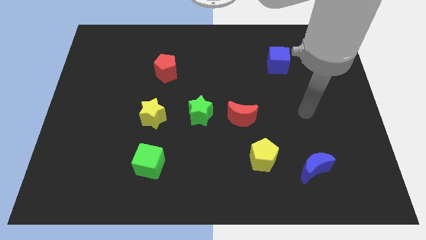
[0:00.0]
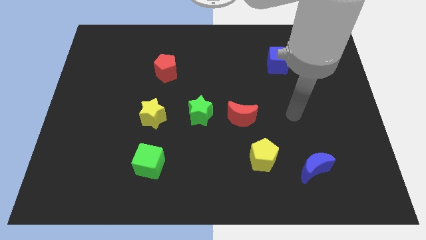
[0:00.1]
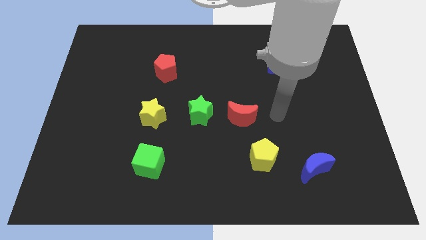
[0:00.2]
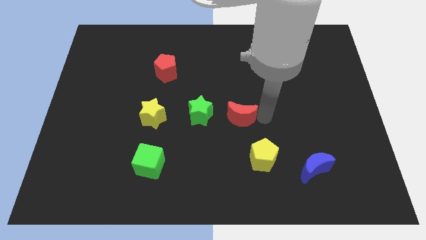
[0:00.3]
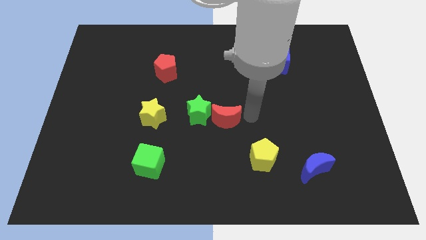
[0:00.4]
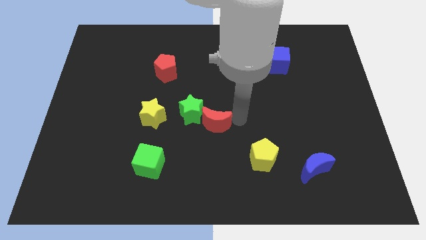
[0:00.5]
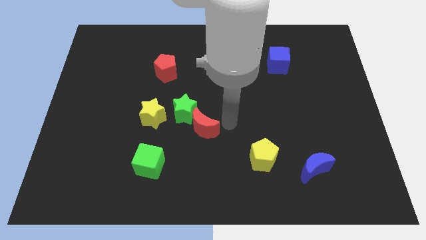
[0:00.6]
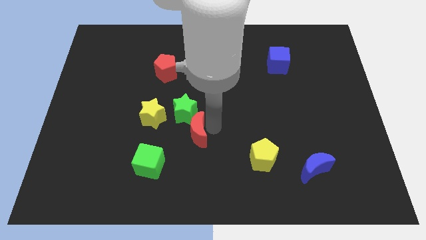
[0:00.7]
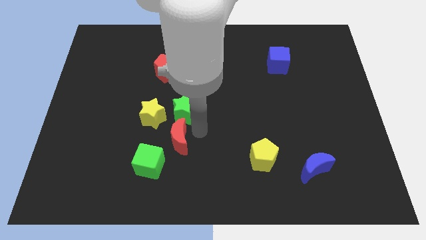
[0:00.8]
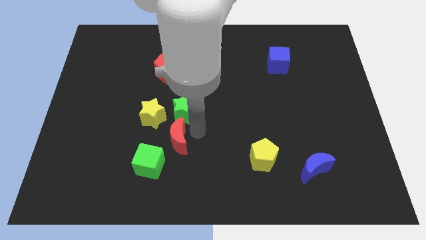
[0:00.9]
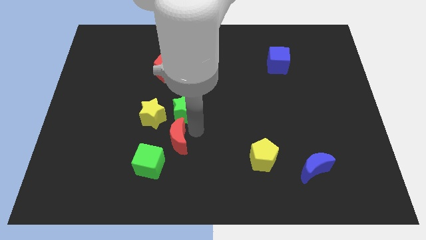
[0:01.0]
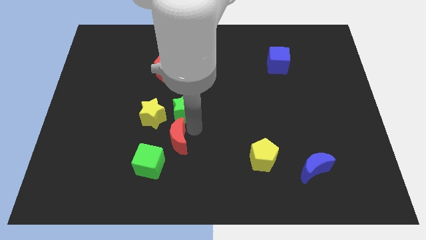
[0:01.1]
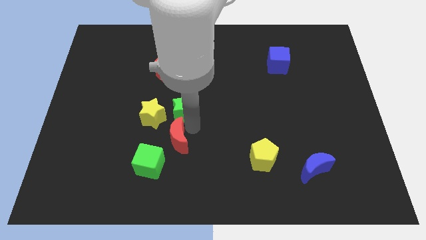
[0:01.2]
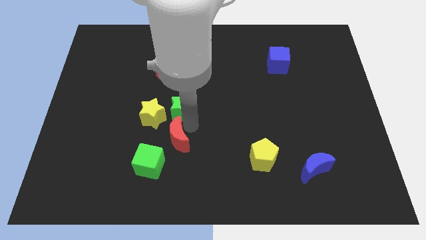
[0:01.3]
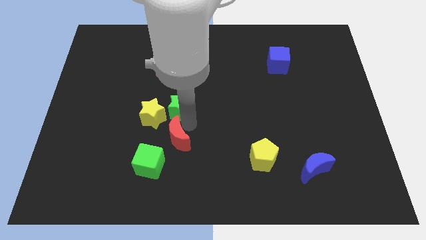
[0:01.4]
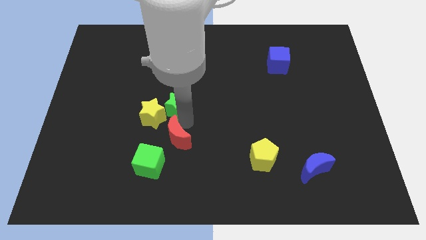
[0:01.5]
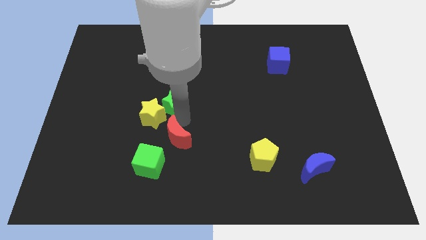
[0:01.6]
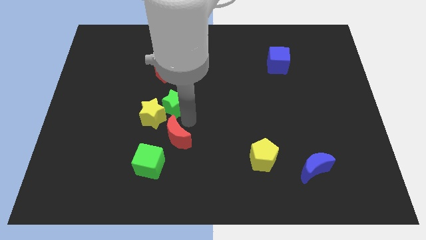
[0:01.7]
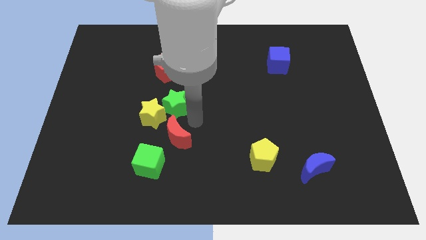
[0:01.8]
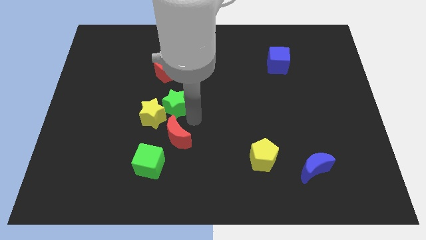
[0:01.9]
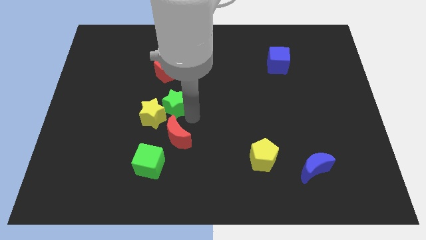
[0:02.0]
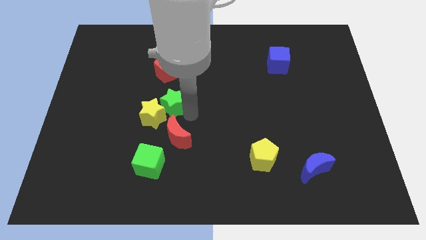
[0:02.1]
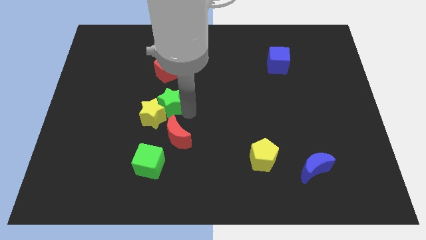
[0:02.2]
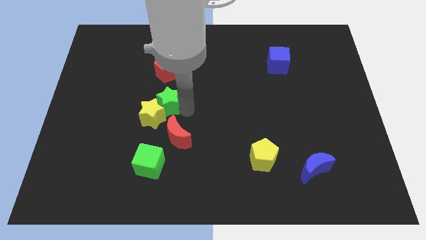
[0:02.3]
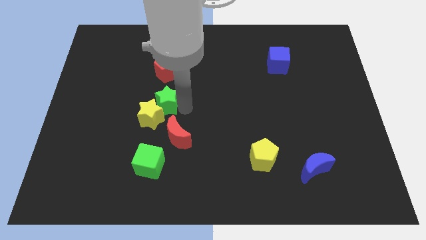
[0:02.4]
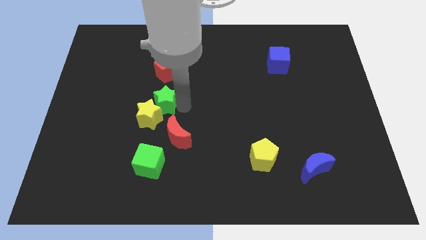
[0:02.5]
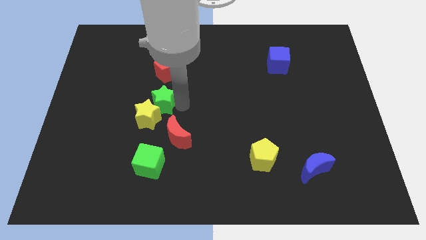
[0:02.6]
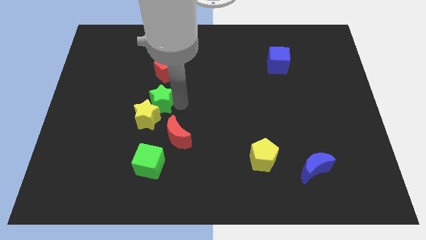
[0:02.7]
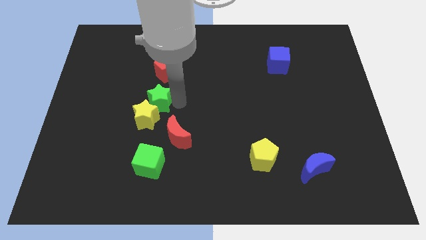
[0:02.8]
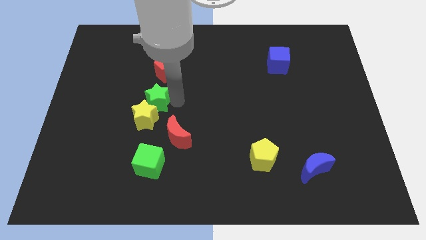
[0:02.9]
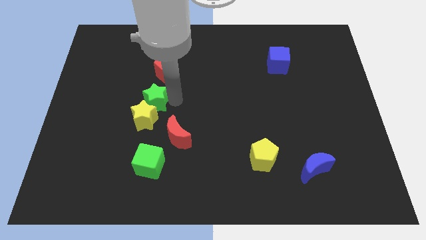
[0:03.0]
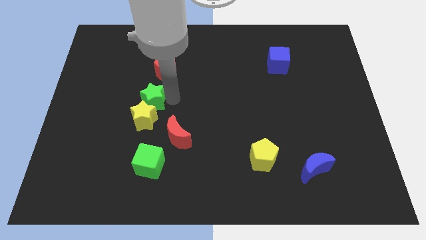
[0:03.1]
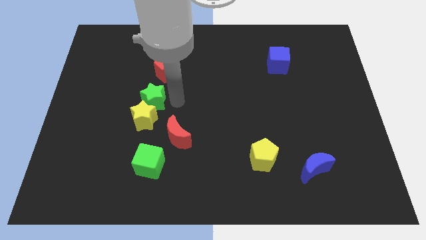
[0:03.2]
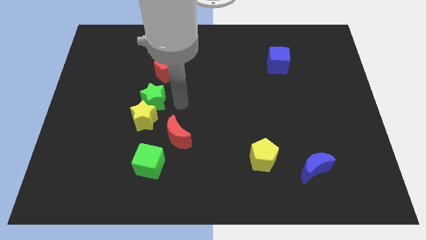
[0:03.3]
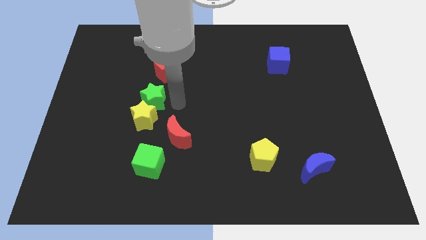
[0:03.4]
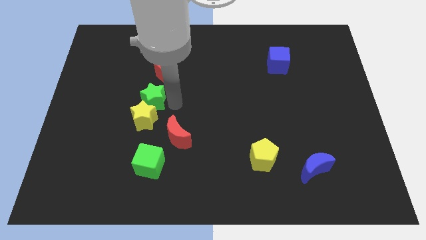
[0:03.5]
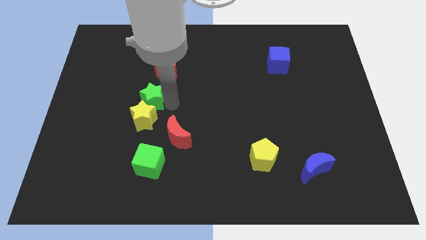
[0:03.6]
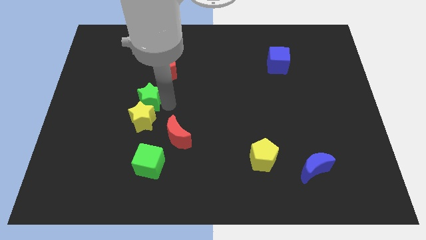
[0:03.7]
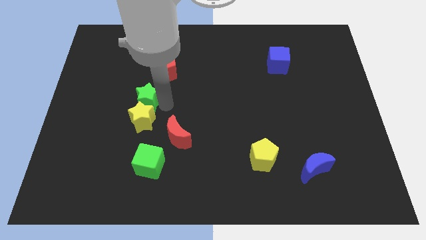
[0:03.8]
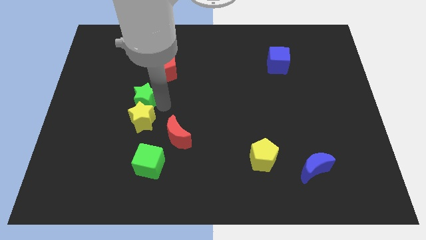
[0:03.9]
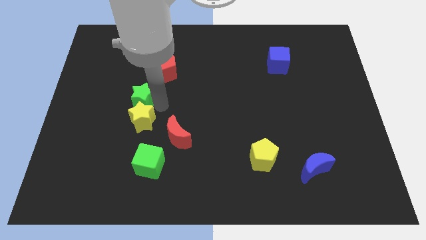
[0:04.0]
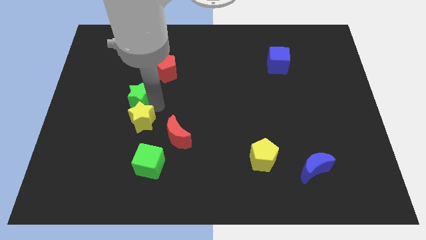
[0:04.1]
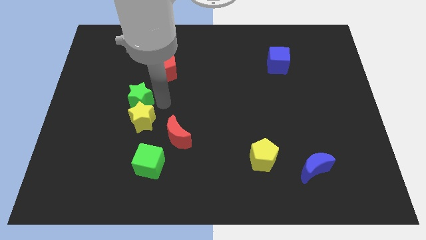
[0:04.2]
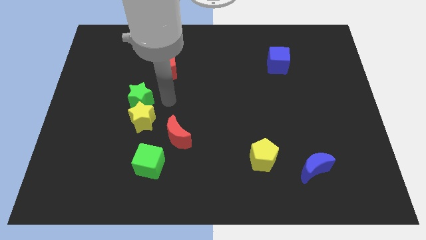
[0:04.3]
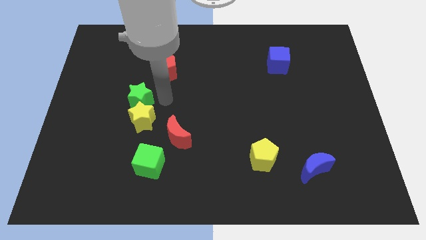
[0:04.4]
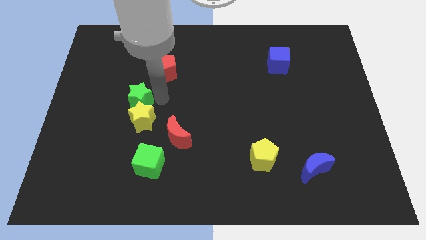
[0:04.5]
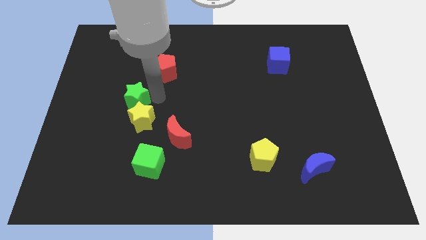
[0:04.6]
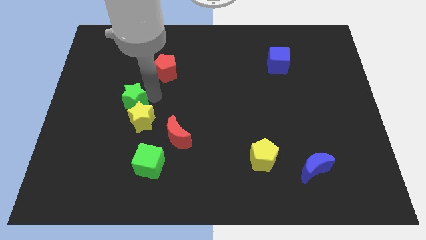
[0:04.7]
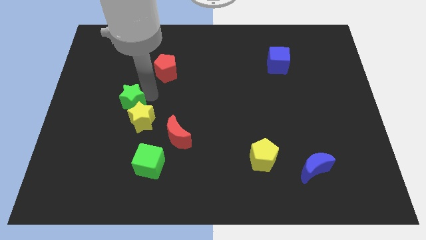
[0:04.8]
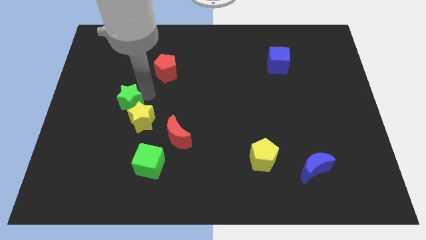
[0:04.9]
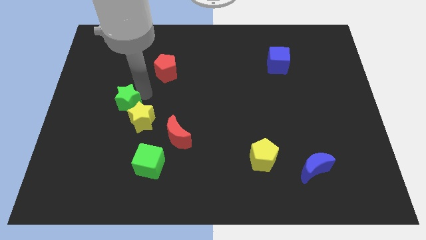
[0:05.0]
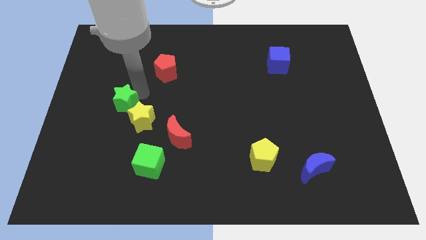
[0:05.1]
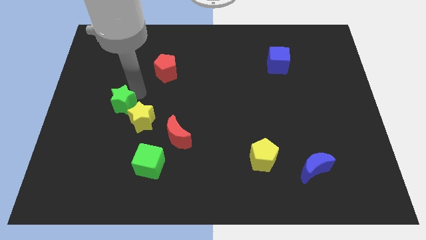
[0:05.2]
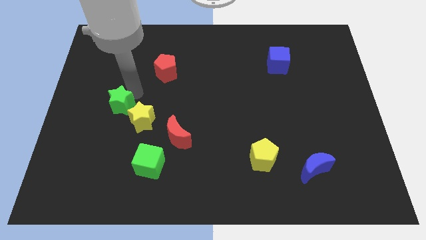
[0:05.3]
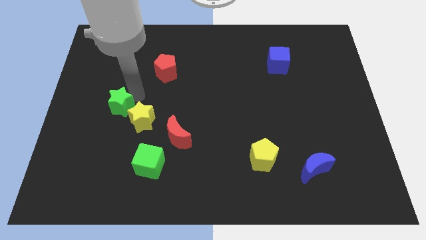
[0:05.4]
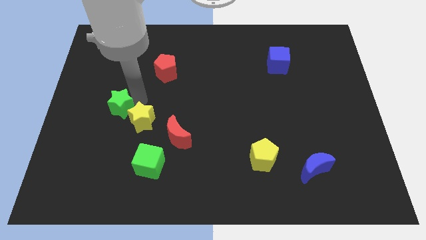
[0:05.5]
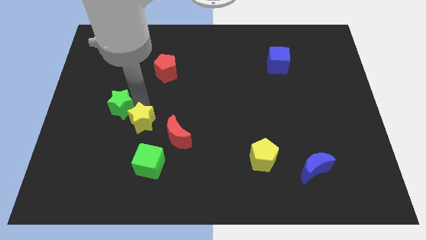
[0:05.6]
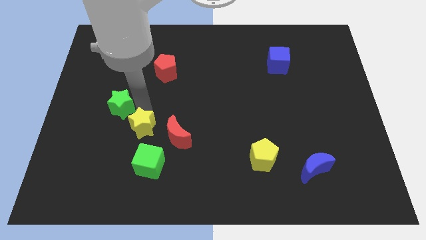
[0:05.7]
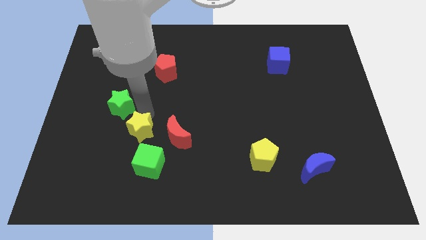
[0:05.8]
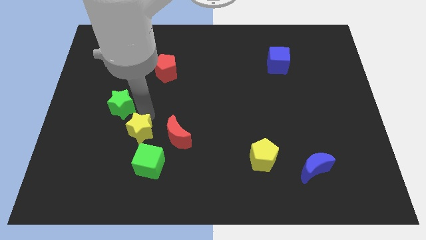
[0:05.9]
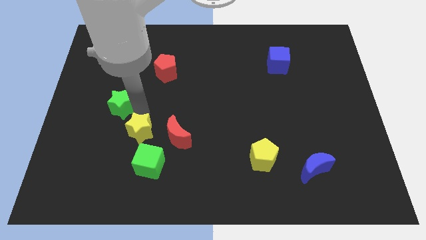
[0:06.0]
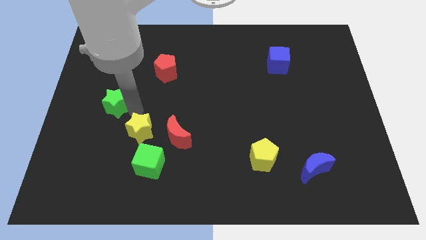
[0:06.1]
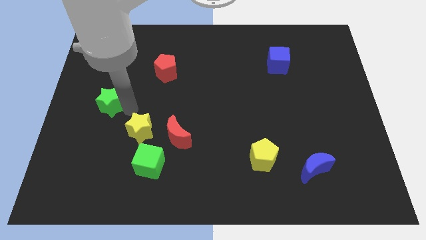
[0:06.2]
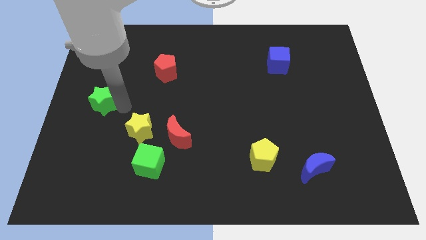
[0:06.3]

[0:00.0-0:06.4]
slide the green star to the left side of the board
